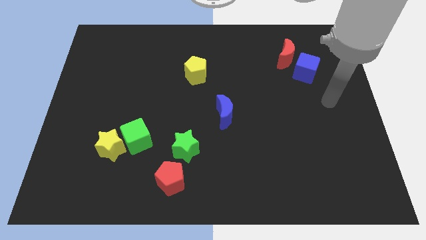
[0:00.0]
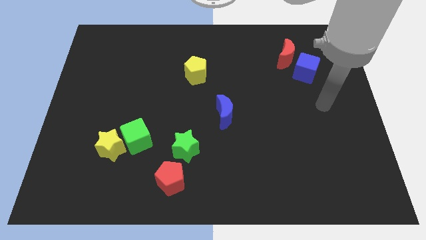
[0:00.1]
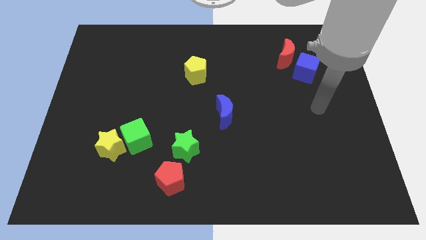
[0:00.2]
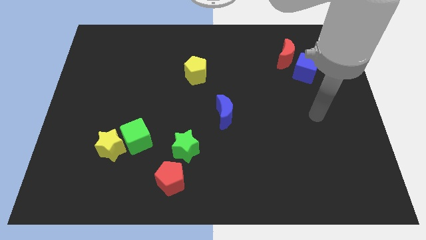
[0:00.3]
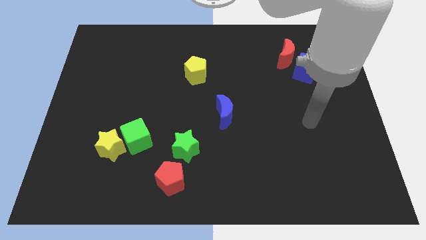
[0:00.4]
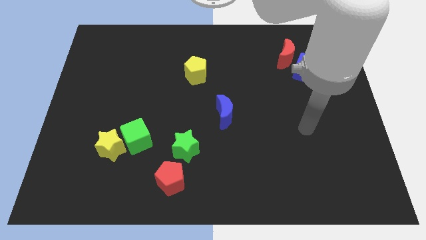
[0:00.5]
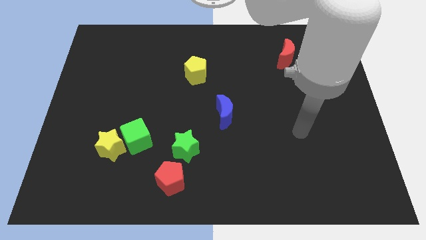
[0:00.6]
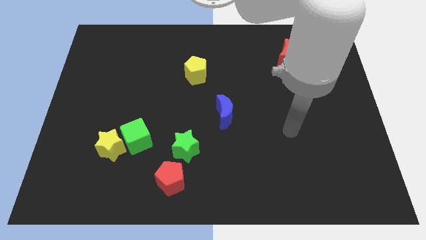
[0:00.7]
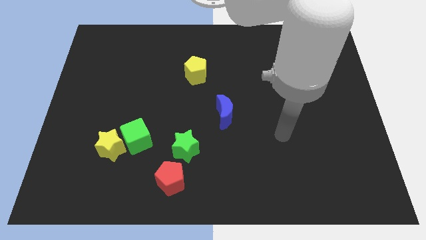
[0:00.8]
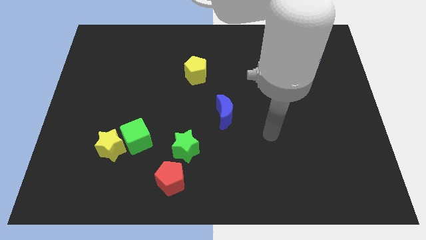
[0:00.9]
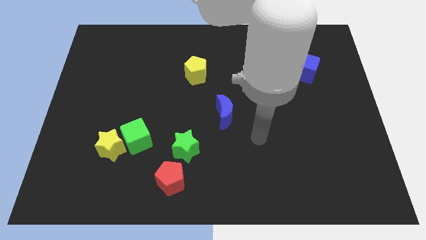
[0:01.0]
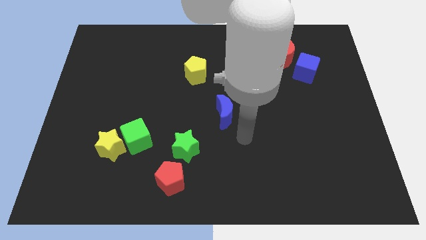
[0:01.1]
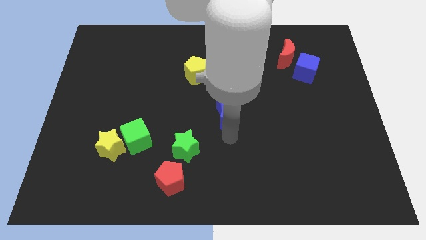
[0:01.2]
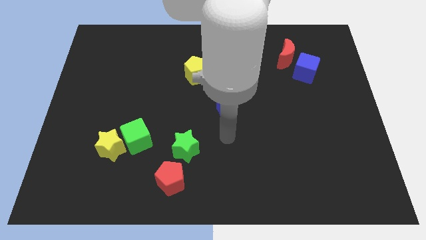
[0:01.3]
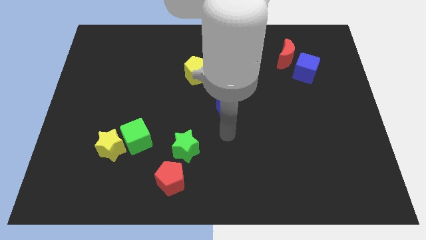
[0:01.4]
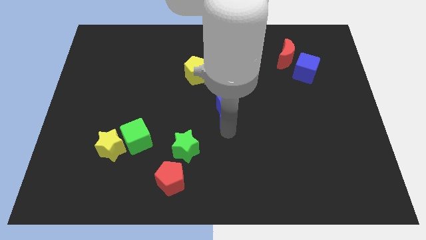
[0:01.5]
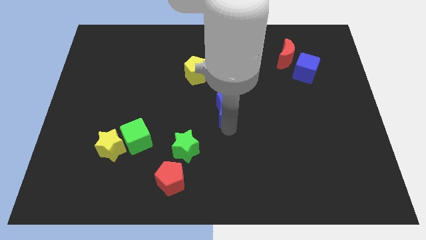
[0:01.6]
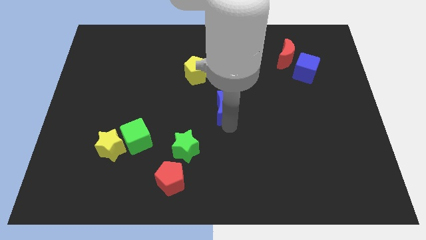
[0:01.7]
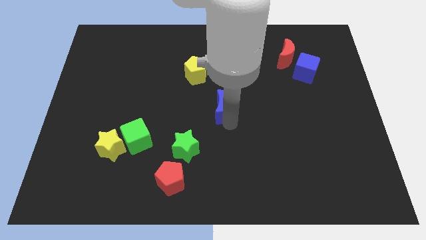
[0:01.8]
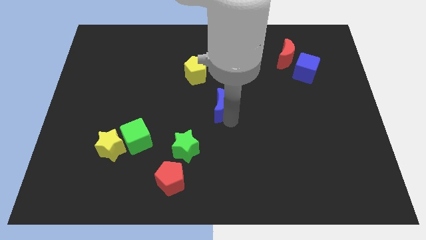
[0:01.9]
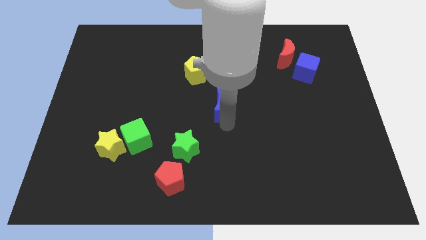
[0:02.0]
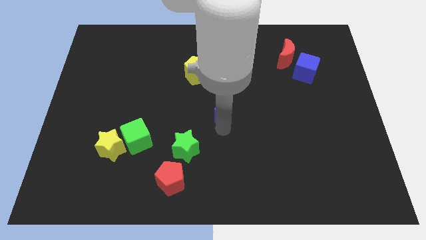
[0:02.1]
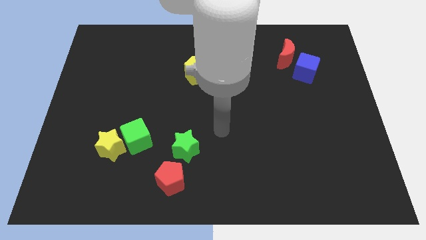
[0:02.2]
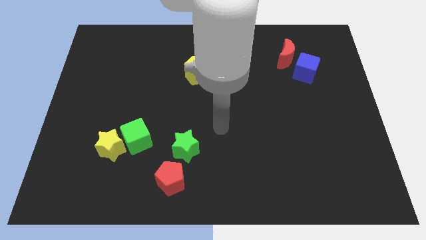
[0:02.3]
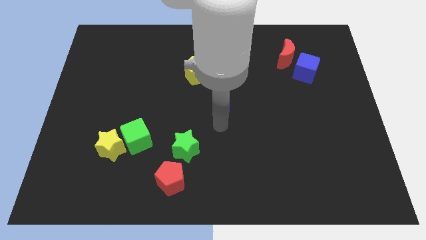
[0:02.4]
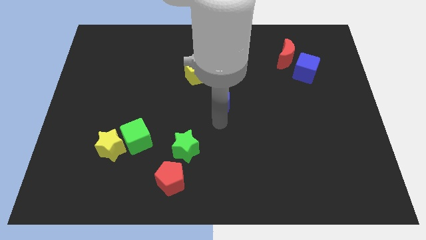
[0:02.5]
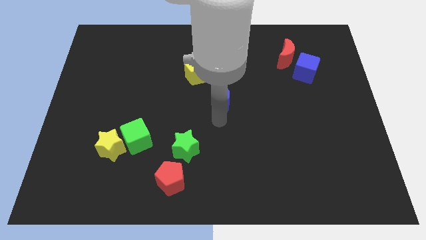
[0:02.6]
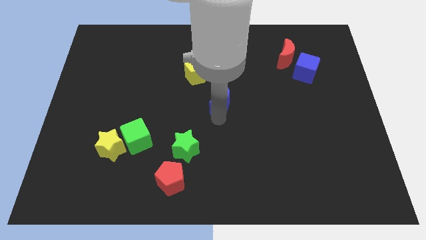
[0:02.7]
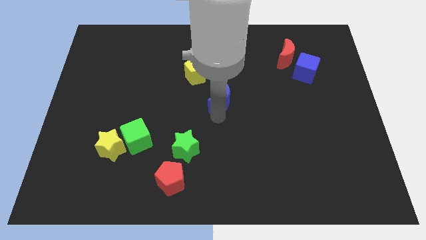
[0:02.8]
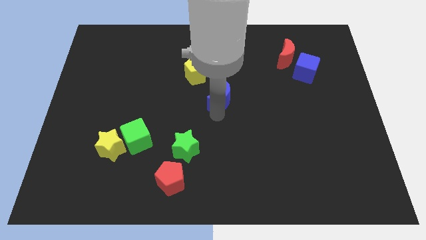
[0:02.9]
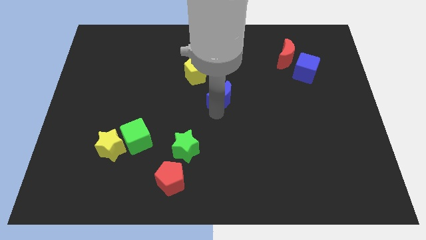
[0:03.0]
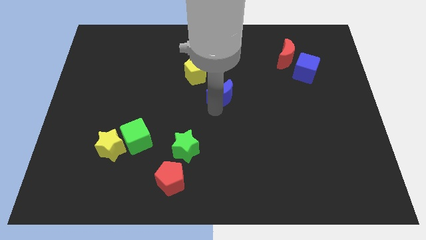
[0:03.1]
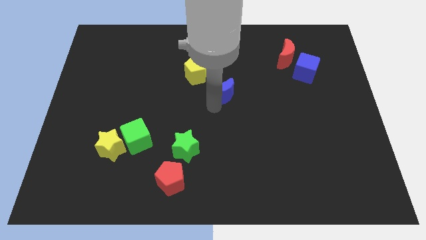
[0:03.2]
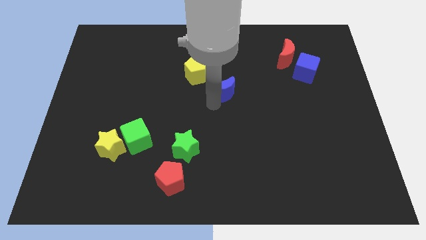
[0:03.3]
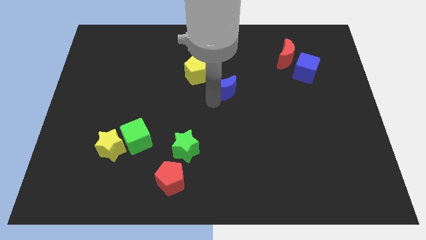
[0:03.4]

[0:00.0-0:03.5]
move the blue moon slightly up

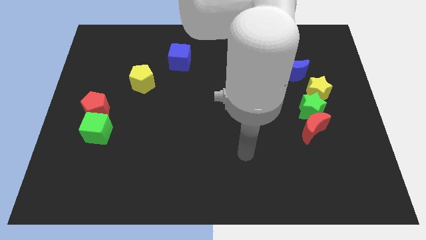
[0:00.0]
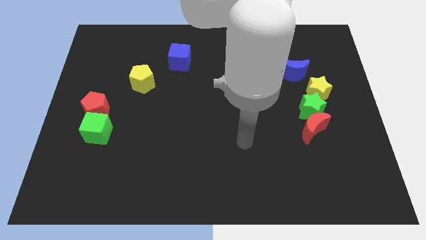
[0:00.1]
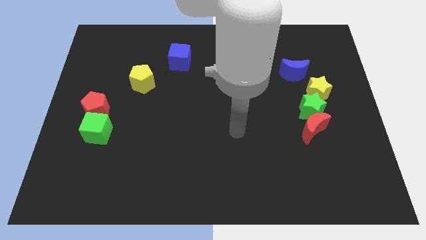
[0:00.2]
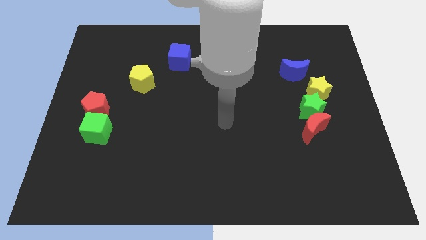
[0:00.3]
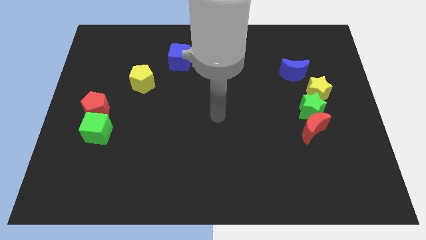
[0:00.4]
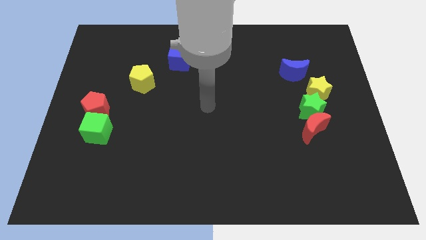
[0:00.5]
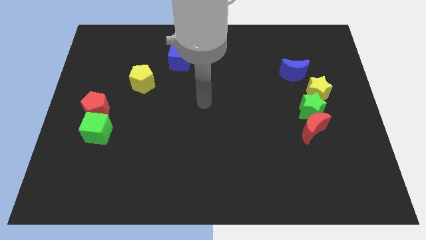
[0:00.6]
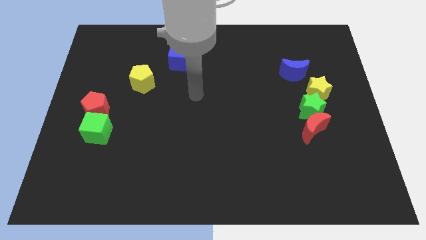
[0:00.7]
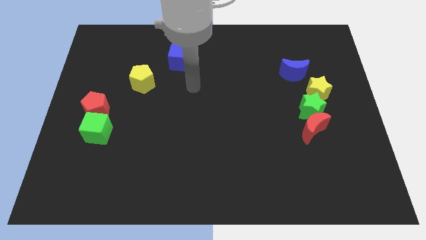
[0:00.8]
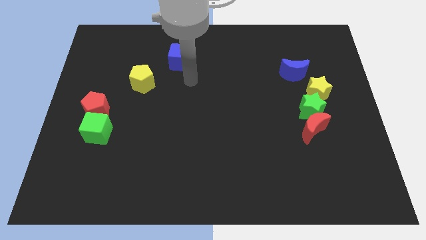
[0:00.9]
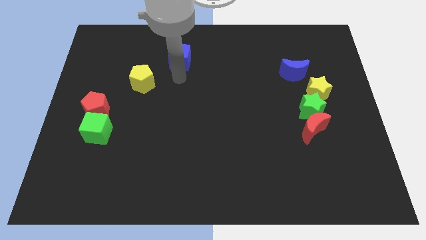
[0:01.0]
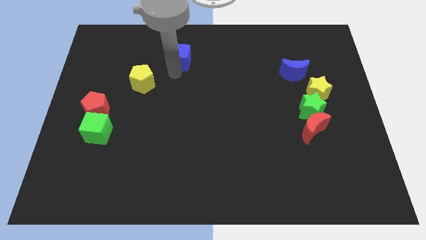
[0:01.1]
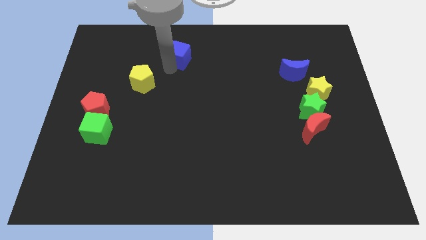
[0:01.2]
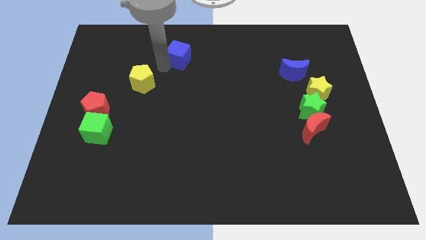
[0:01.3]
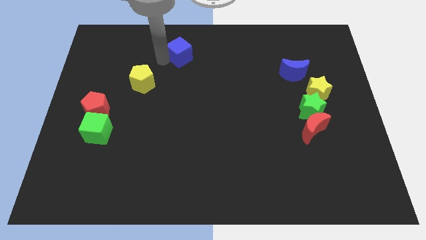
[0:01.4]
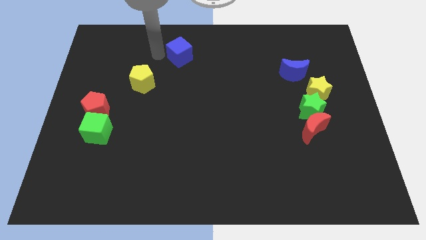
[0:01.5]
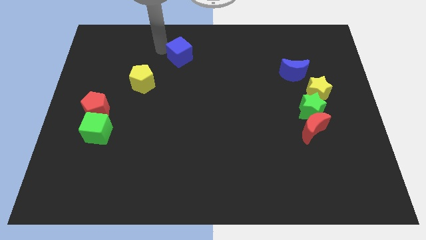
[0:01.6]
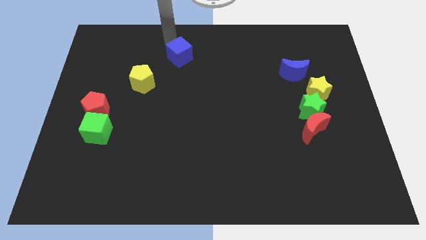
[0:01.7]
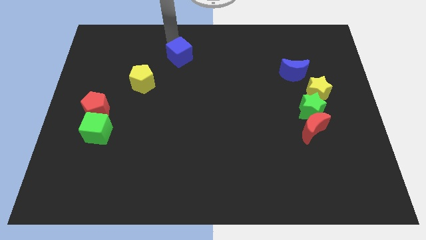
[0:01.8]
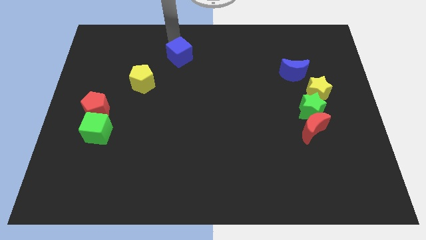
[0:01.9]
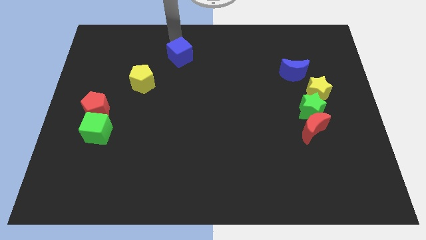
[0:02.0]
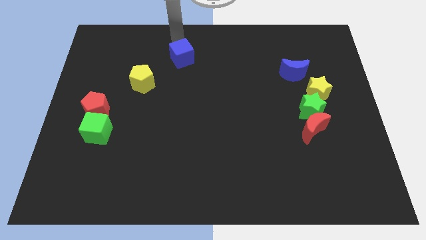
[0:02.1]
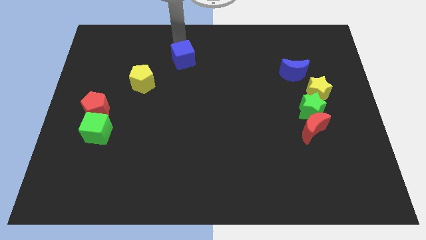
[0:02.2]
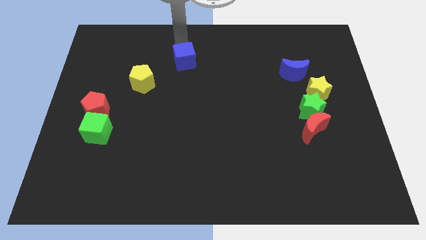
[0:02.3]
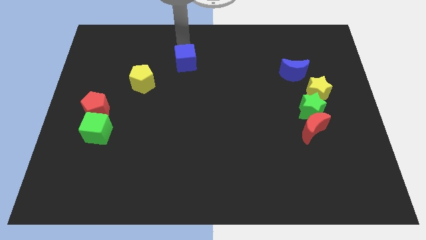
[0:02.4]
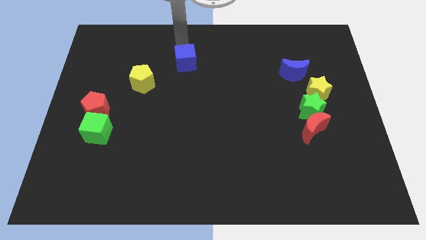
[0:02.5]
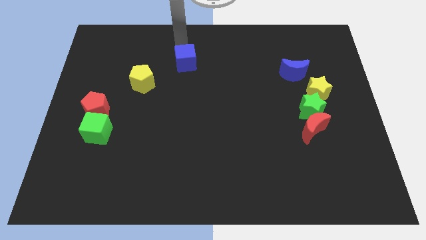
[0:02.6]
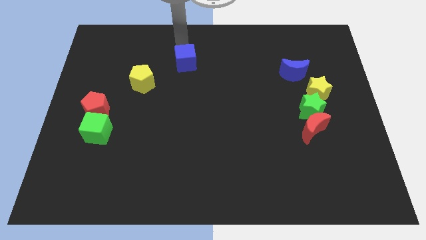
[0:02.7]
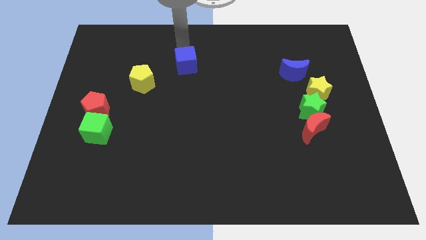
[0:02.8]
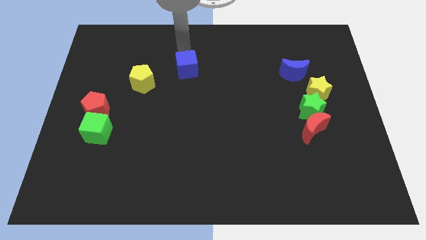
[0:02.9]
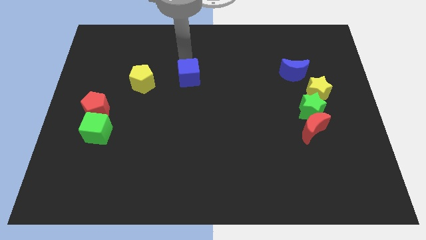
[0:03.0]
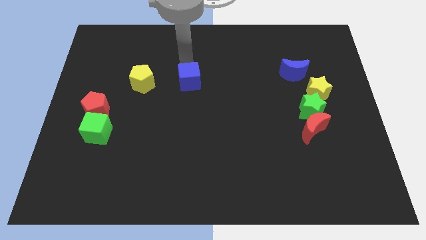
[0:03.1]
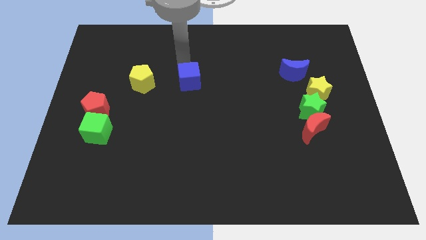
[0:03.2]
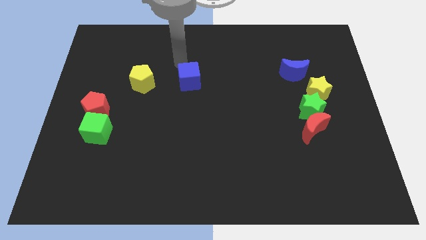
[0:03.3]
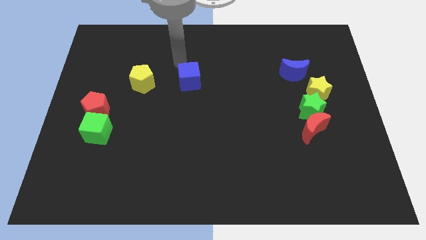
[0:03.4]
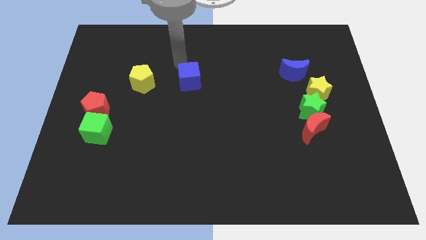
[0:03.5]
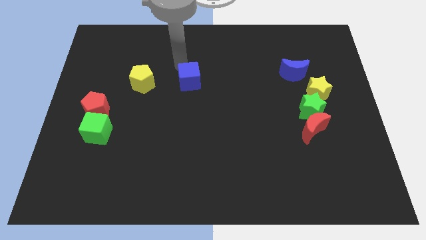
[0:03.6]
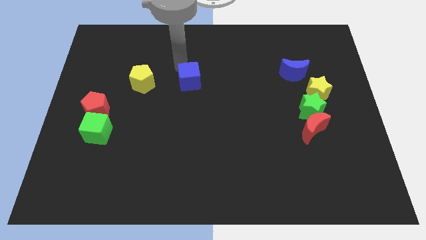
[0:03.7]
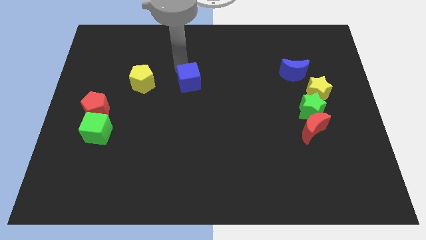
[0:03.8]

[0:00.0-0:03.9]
push the blue cube a little downwards

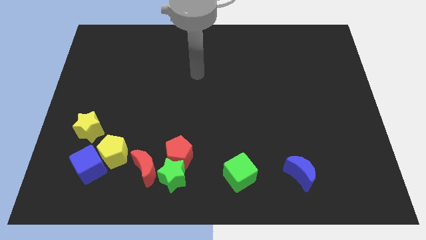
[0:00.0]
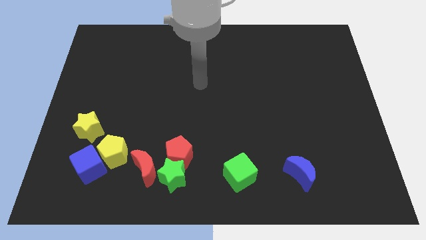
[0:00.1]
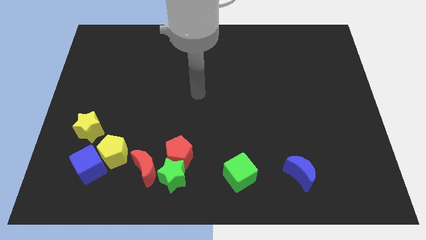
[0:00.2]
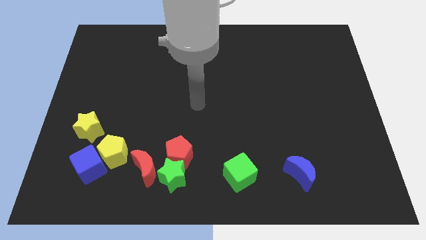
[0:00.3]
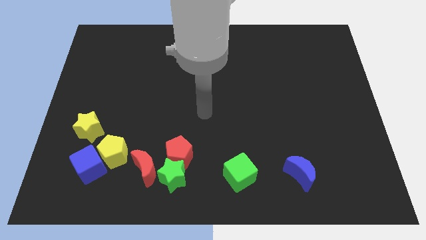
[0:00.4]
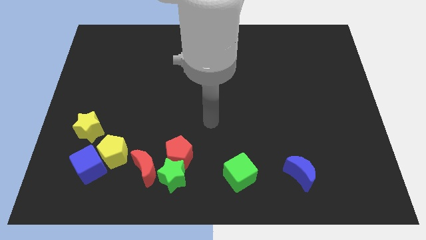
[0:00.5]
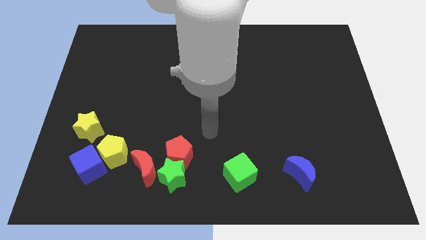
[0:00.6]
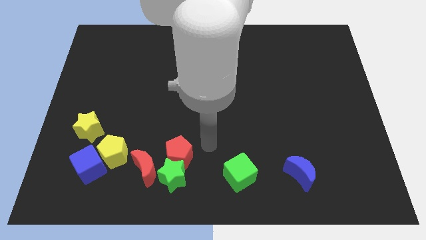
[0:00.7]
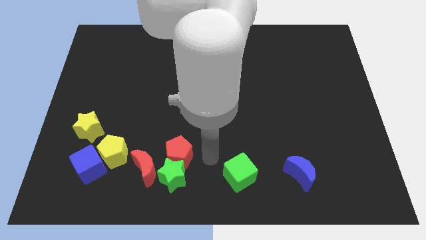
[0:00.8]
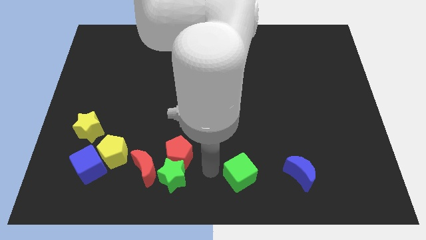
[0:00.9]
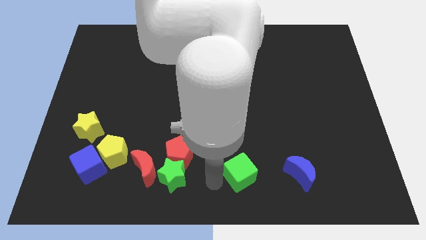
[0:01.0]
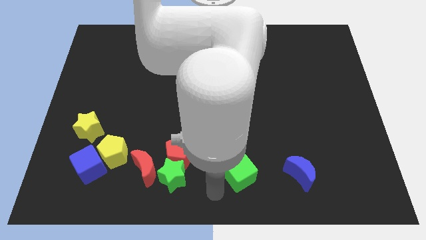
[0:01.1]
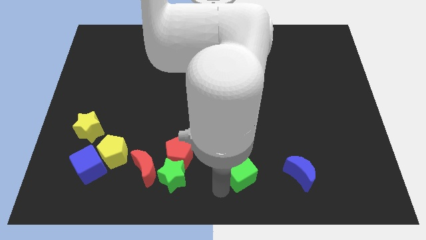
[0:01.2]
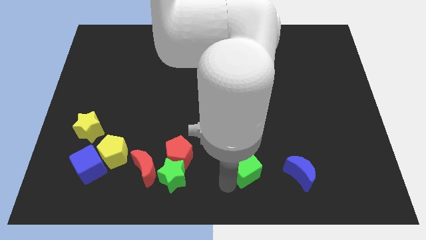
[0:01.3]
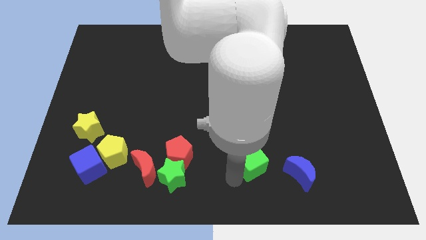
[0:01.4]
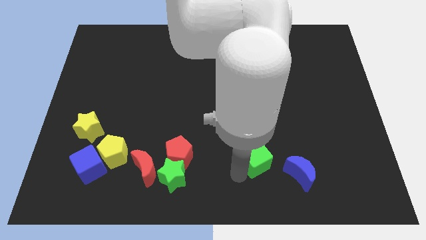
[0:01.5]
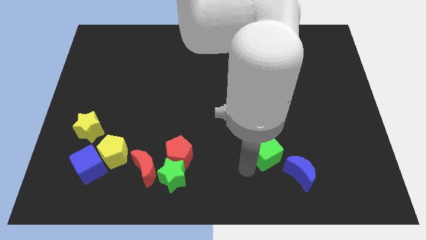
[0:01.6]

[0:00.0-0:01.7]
slightly move the green cube diagonally up and right
